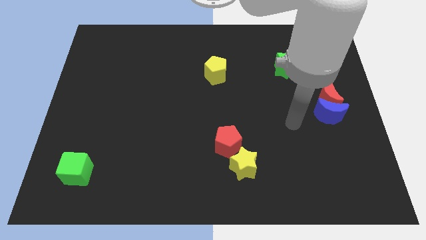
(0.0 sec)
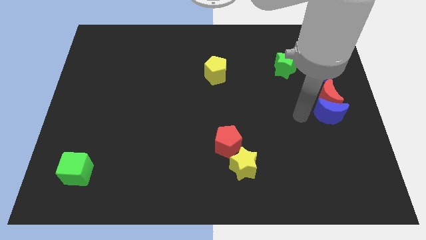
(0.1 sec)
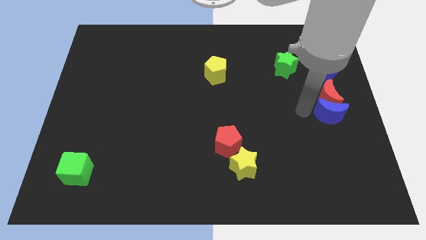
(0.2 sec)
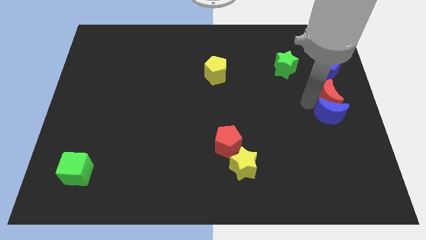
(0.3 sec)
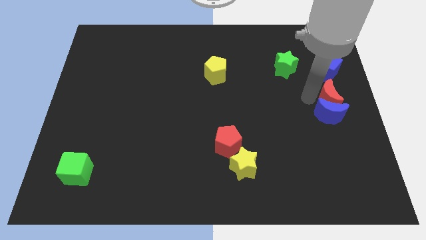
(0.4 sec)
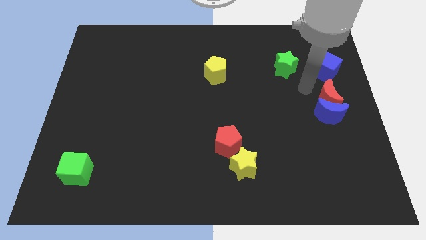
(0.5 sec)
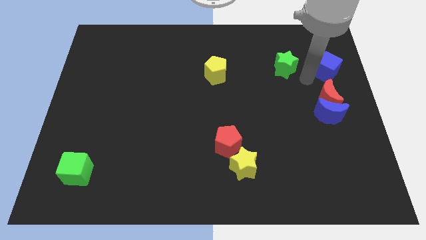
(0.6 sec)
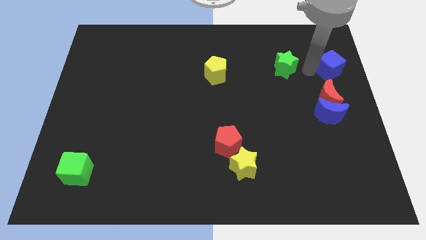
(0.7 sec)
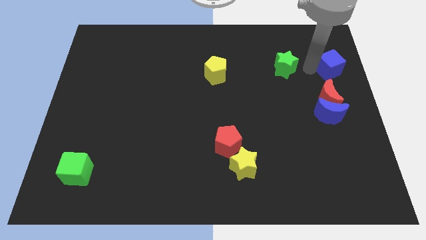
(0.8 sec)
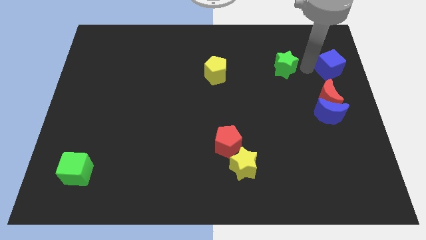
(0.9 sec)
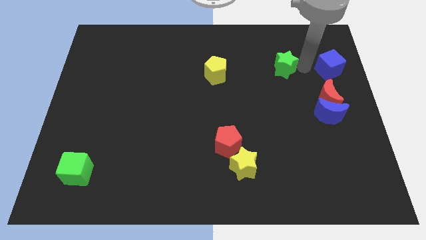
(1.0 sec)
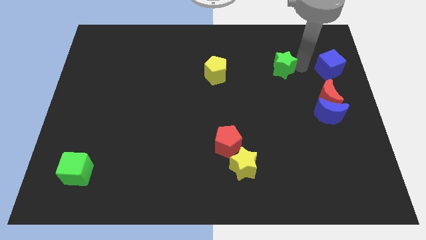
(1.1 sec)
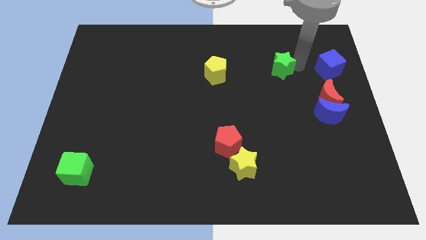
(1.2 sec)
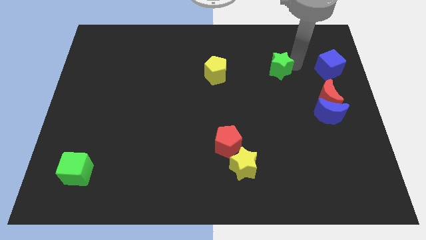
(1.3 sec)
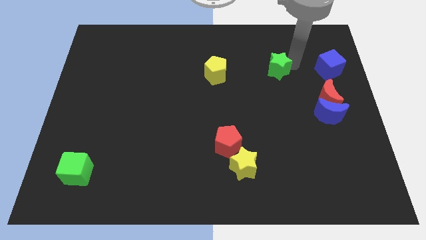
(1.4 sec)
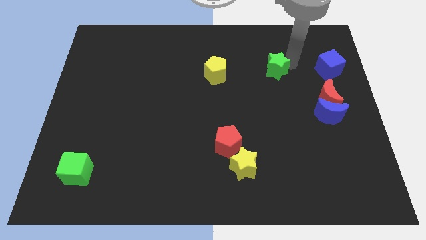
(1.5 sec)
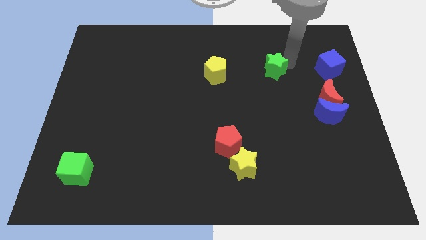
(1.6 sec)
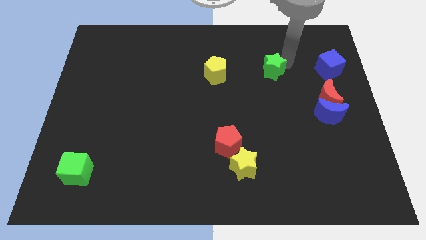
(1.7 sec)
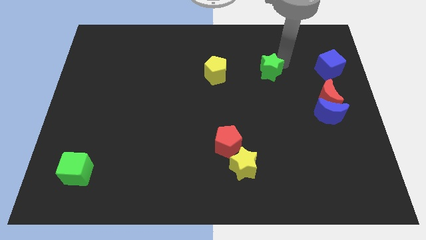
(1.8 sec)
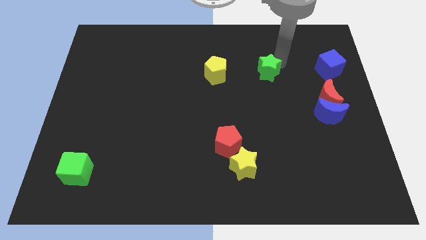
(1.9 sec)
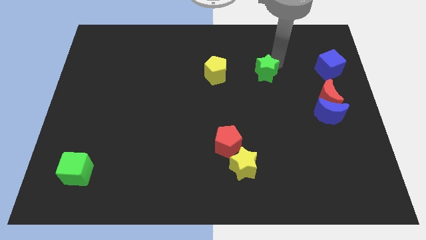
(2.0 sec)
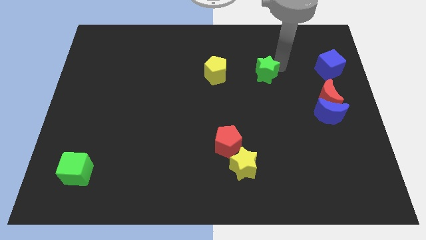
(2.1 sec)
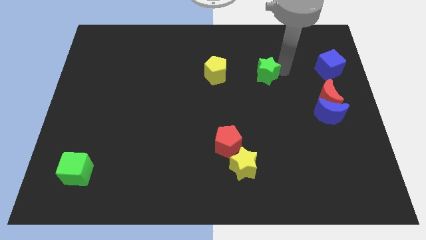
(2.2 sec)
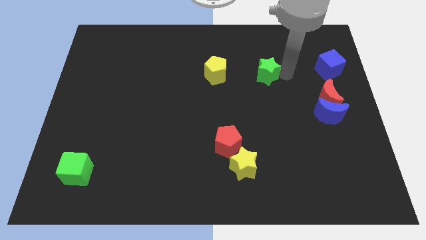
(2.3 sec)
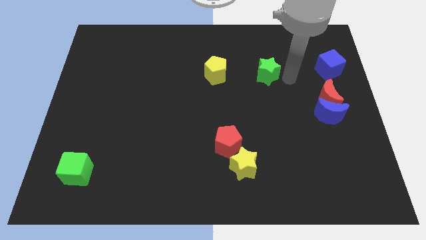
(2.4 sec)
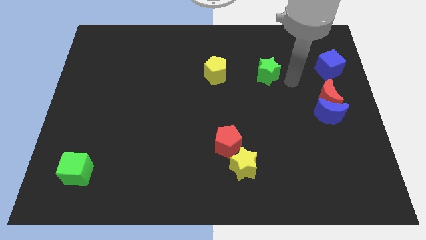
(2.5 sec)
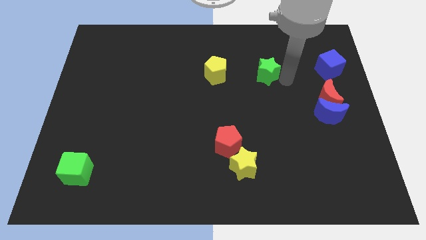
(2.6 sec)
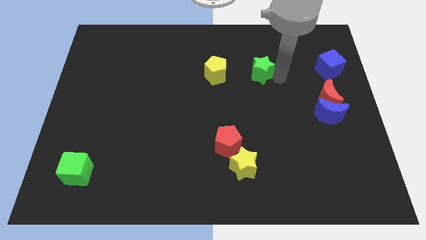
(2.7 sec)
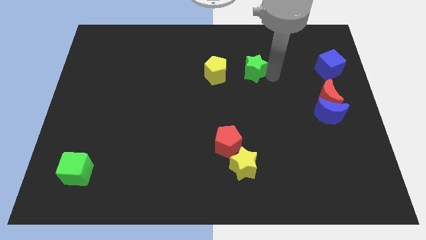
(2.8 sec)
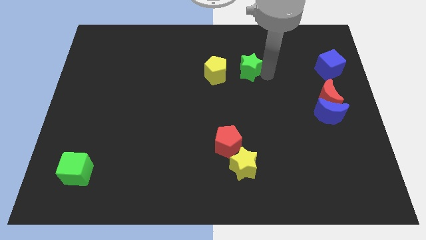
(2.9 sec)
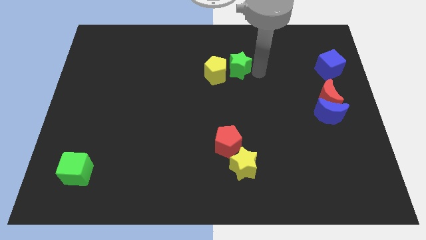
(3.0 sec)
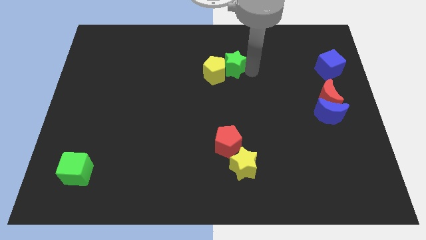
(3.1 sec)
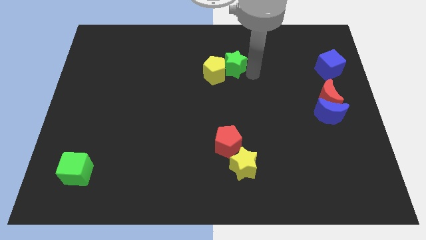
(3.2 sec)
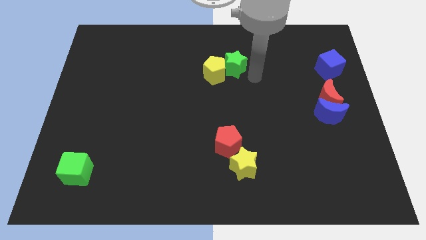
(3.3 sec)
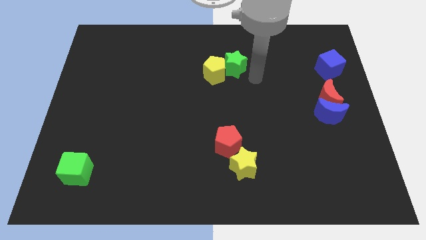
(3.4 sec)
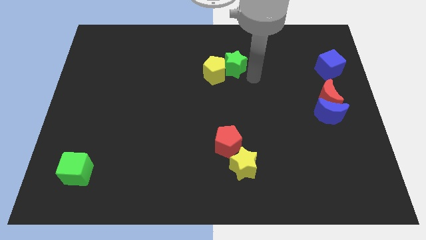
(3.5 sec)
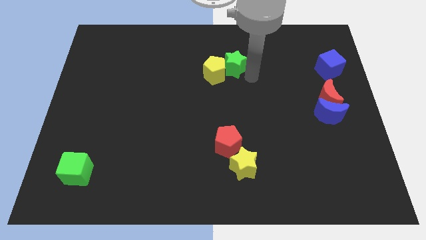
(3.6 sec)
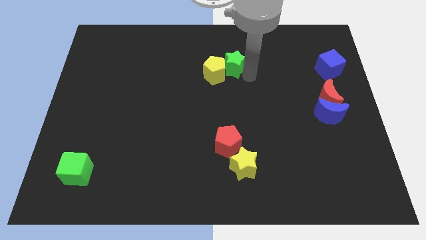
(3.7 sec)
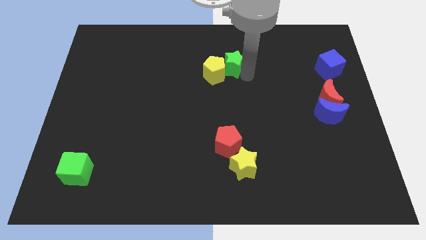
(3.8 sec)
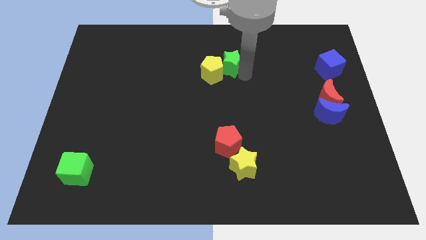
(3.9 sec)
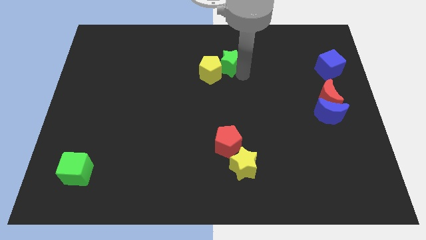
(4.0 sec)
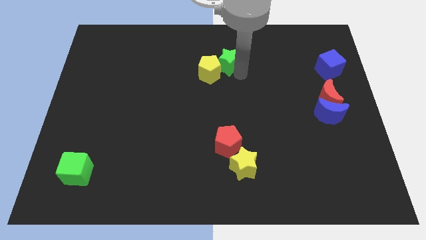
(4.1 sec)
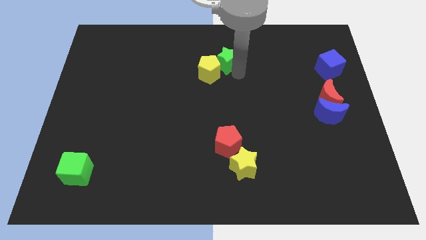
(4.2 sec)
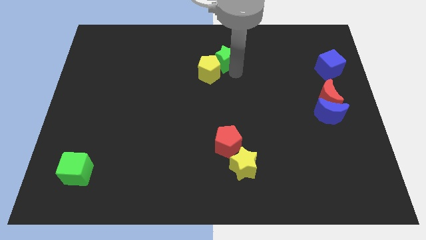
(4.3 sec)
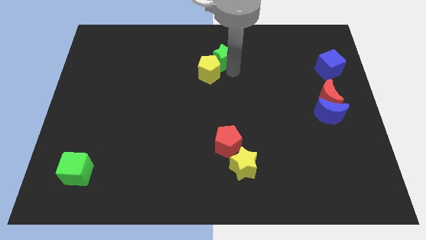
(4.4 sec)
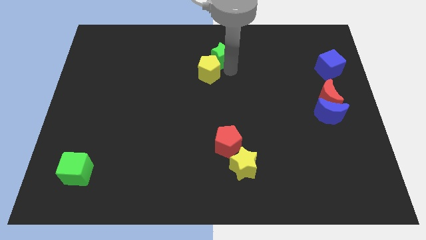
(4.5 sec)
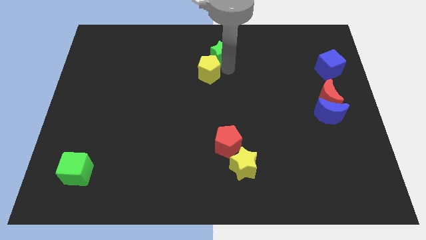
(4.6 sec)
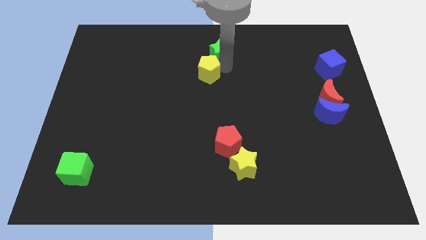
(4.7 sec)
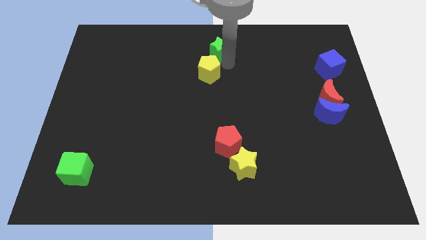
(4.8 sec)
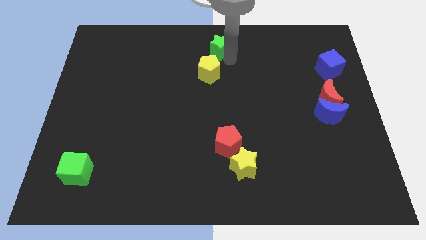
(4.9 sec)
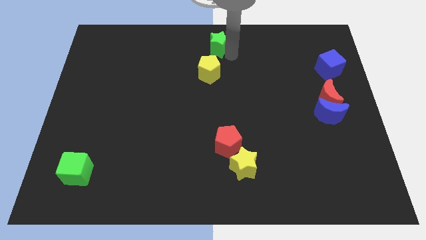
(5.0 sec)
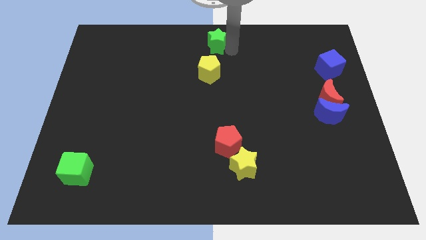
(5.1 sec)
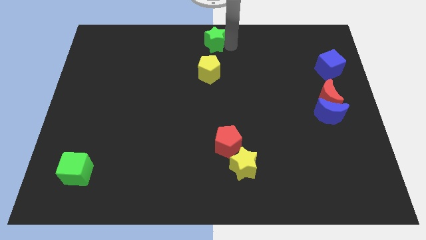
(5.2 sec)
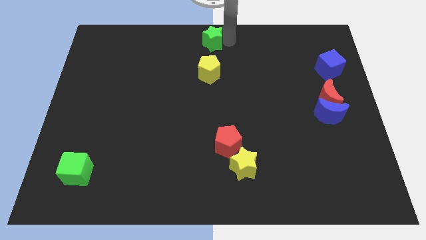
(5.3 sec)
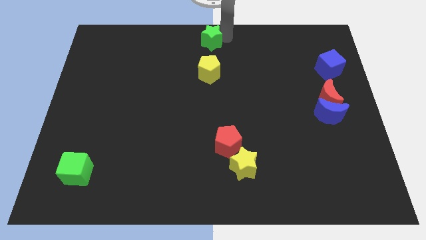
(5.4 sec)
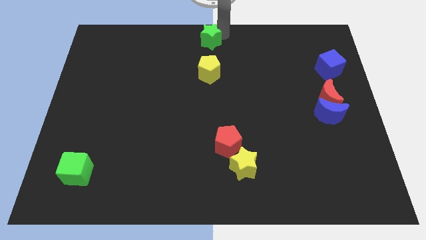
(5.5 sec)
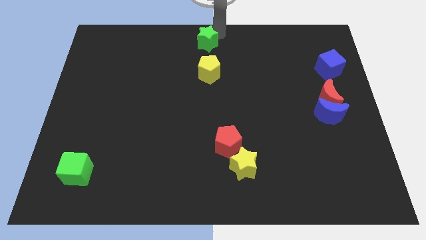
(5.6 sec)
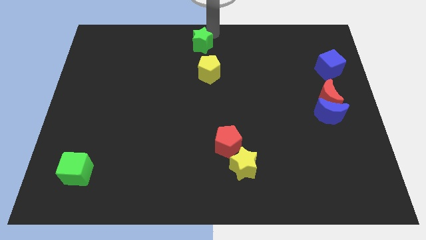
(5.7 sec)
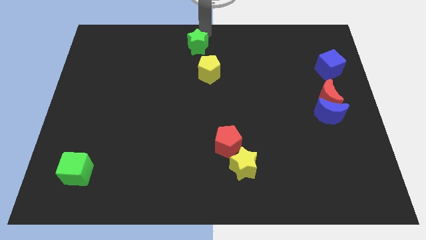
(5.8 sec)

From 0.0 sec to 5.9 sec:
move the green star left

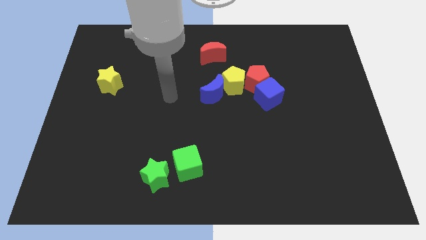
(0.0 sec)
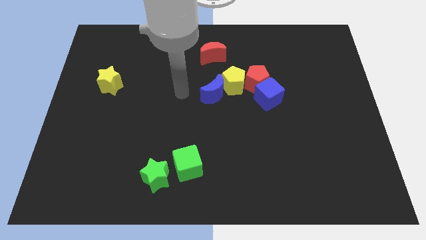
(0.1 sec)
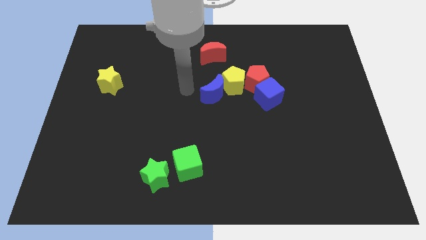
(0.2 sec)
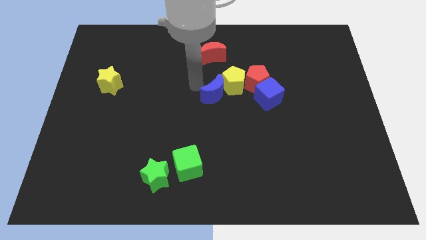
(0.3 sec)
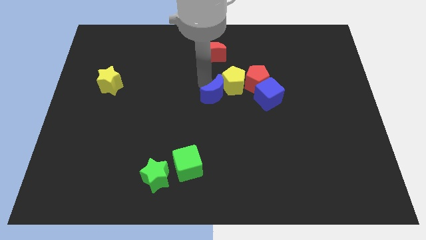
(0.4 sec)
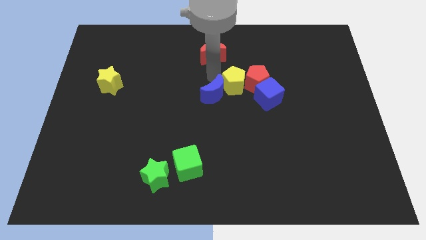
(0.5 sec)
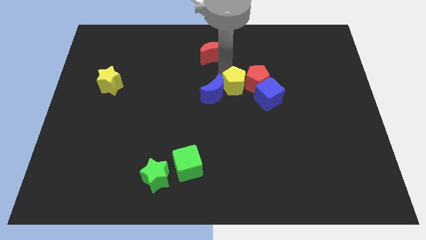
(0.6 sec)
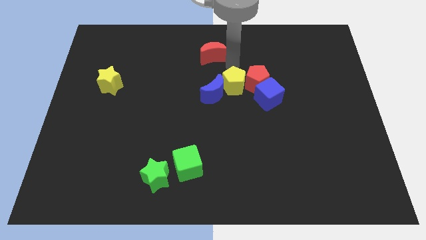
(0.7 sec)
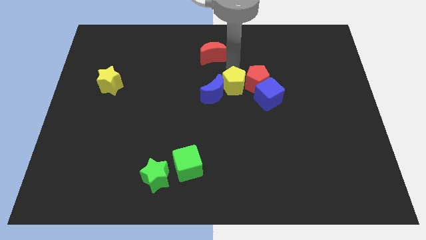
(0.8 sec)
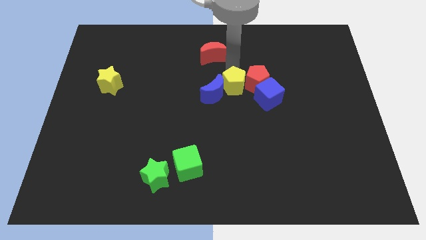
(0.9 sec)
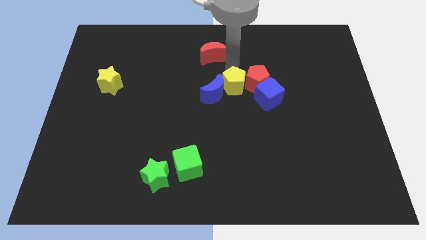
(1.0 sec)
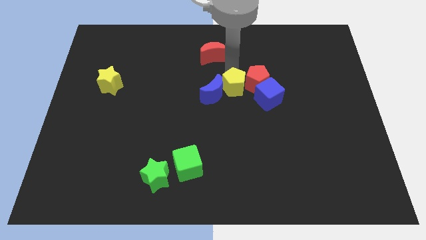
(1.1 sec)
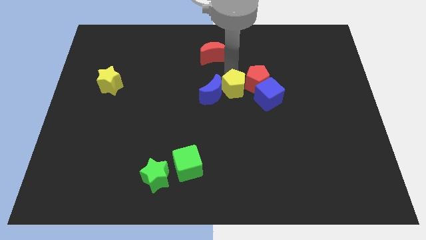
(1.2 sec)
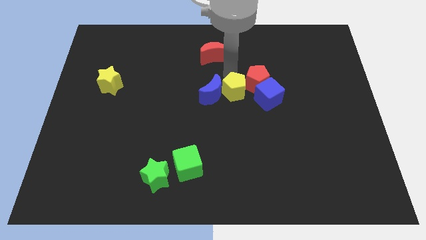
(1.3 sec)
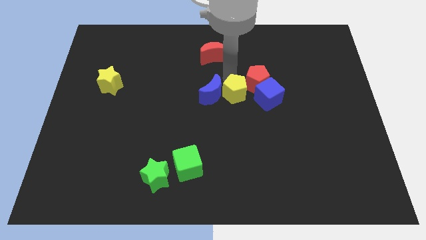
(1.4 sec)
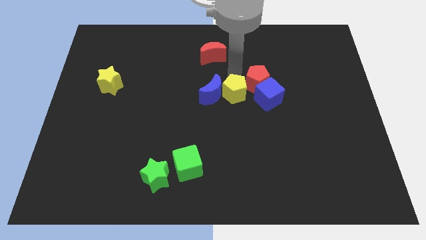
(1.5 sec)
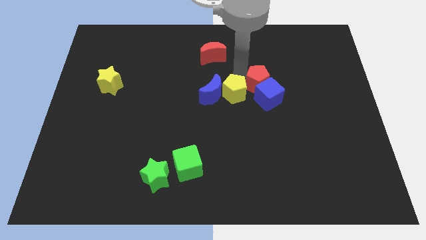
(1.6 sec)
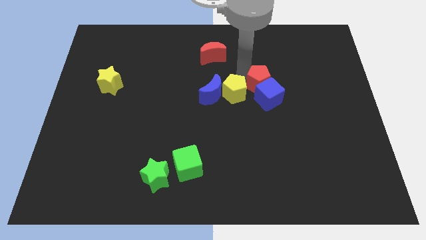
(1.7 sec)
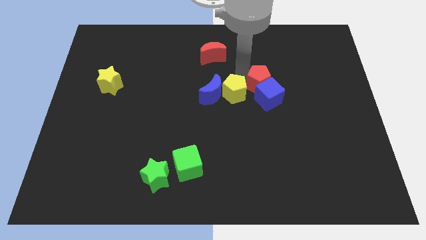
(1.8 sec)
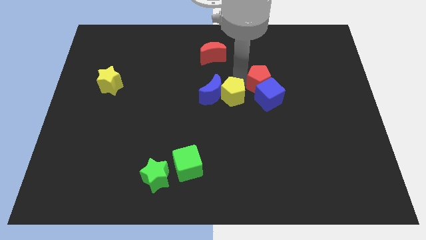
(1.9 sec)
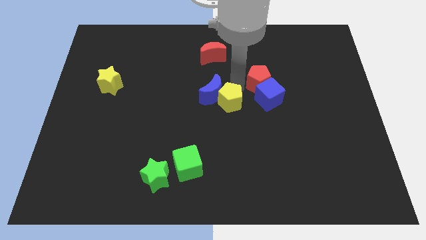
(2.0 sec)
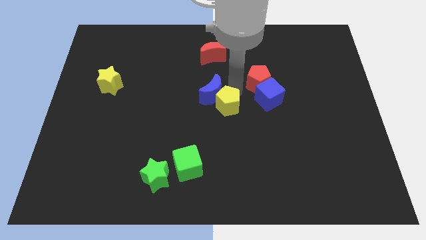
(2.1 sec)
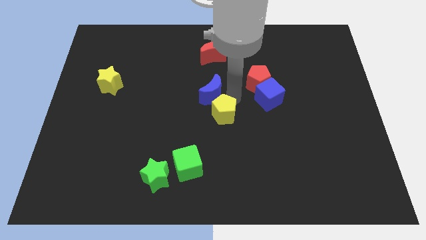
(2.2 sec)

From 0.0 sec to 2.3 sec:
slightly move the yellow pentagon down and then left
